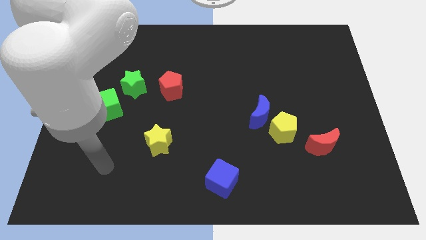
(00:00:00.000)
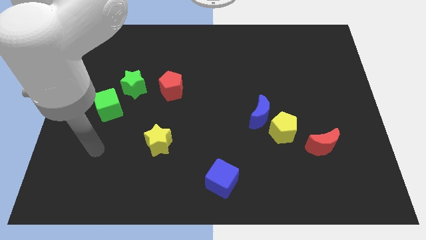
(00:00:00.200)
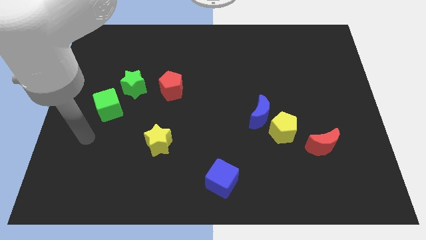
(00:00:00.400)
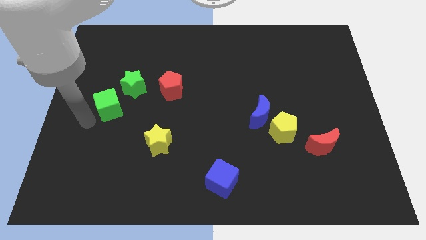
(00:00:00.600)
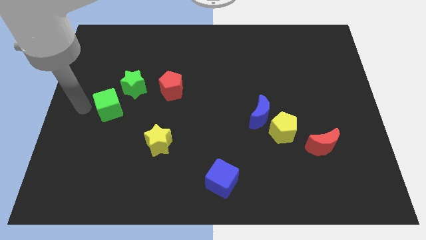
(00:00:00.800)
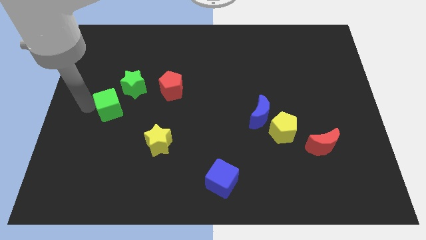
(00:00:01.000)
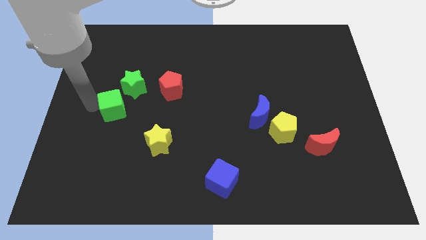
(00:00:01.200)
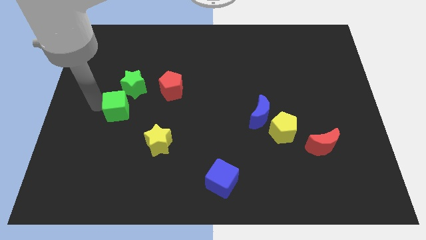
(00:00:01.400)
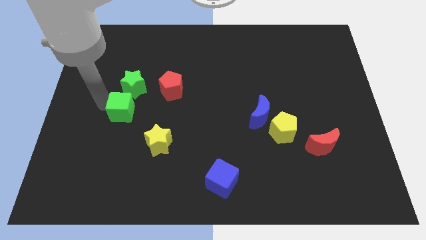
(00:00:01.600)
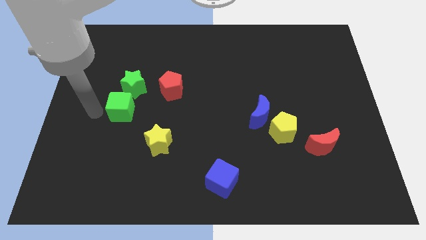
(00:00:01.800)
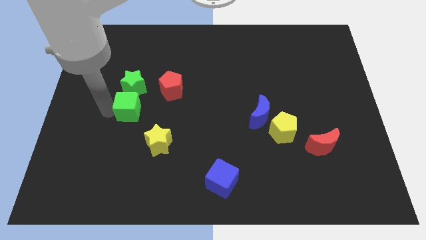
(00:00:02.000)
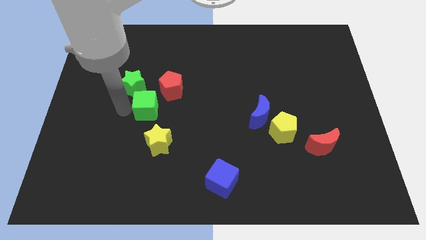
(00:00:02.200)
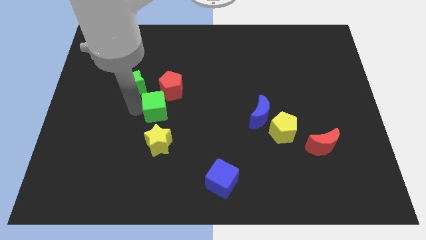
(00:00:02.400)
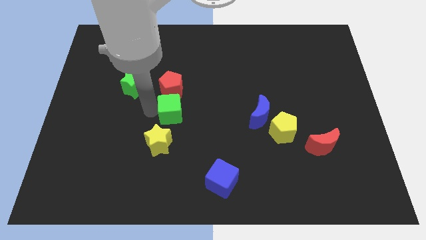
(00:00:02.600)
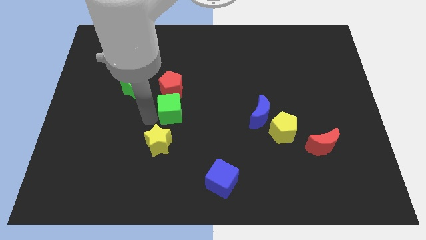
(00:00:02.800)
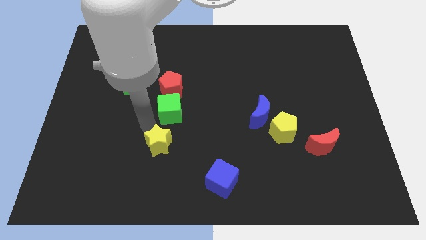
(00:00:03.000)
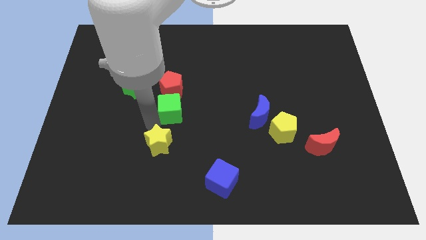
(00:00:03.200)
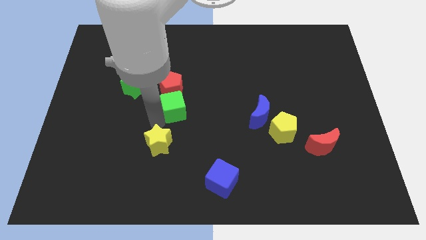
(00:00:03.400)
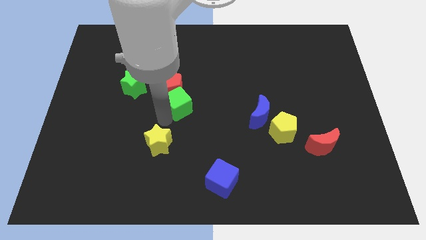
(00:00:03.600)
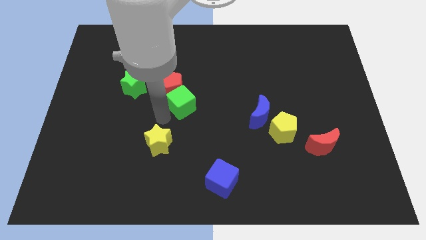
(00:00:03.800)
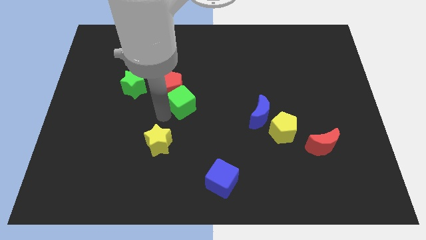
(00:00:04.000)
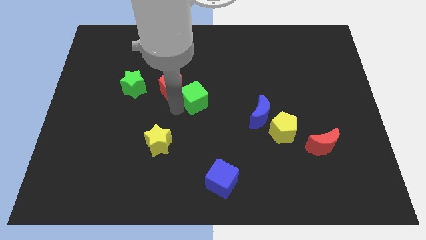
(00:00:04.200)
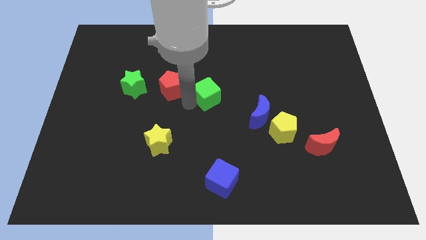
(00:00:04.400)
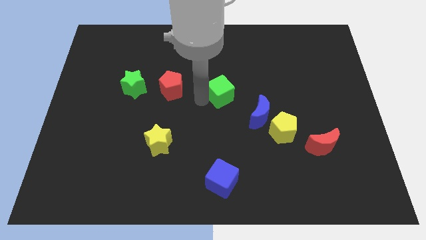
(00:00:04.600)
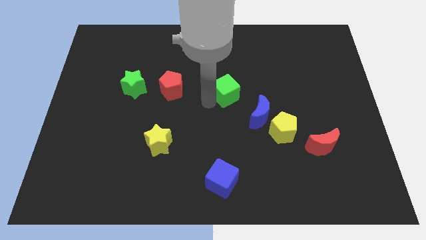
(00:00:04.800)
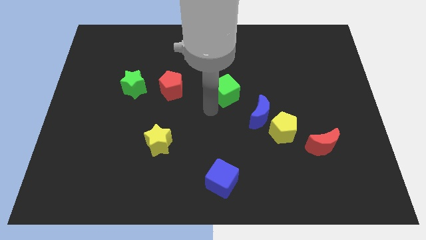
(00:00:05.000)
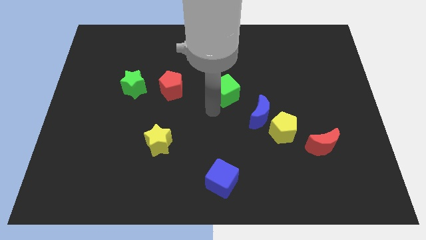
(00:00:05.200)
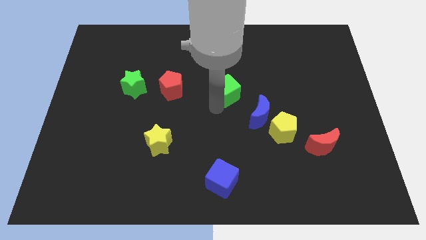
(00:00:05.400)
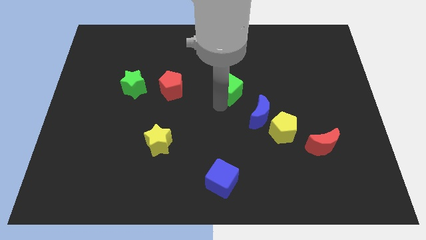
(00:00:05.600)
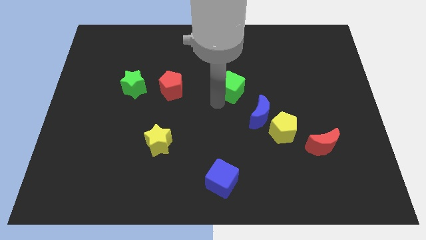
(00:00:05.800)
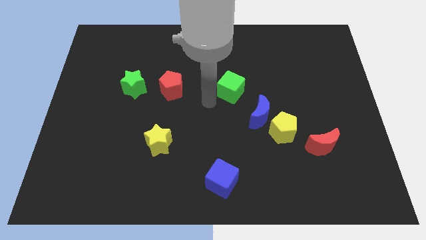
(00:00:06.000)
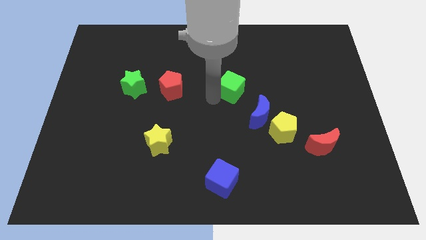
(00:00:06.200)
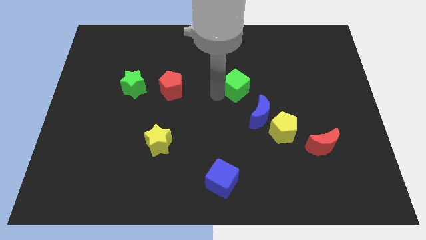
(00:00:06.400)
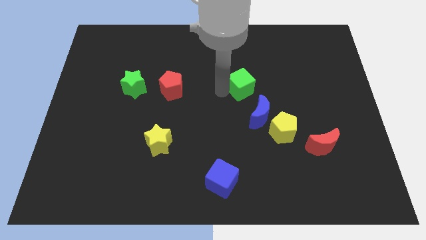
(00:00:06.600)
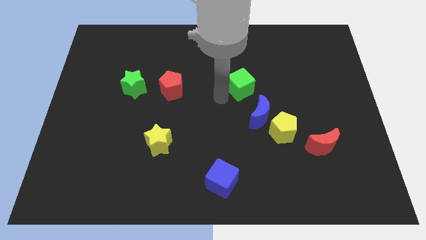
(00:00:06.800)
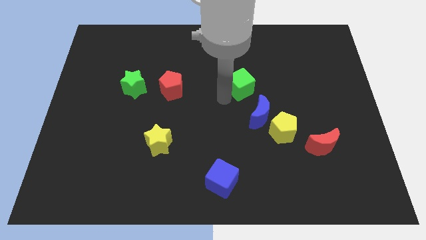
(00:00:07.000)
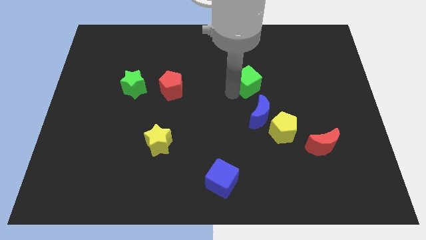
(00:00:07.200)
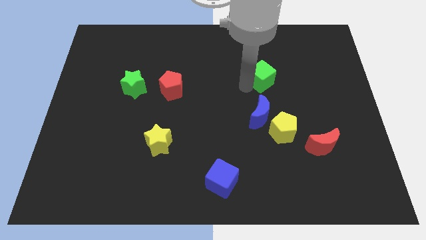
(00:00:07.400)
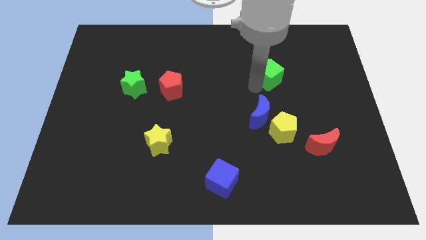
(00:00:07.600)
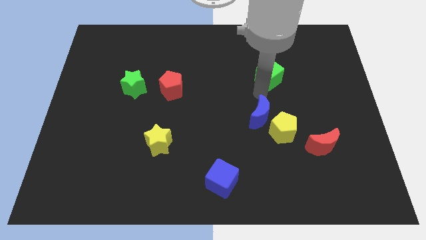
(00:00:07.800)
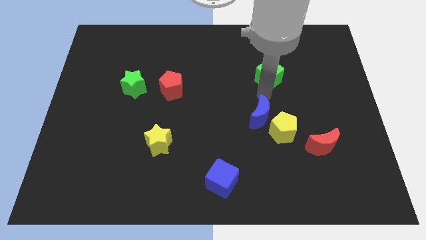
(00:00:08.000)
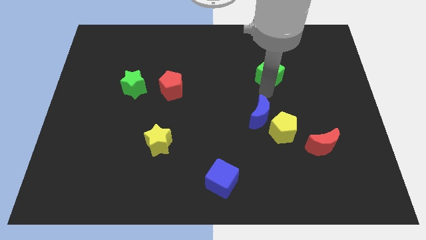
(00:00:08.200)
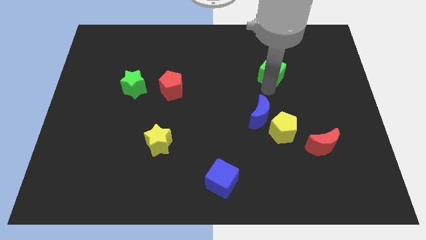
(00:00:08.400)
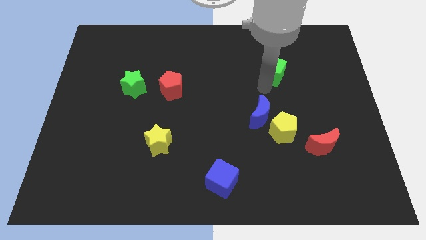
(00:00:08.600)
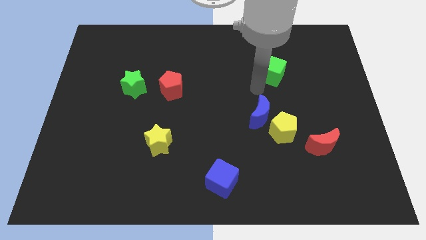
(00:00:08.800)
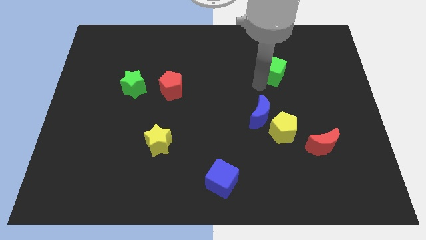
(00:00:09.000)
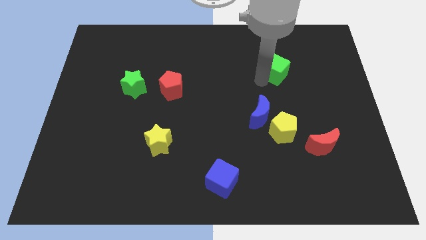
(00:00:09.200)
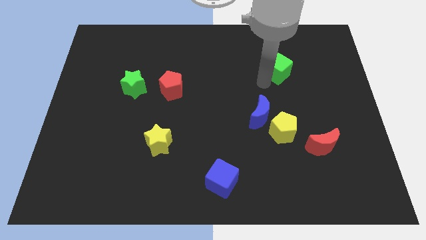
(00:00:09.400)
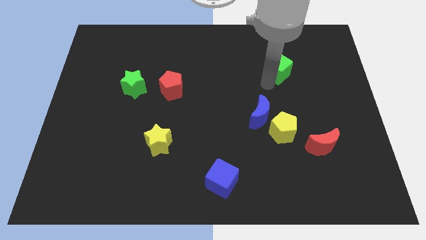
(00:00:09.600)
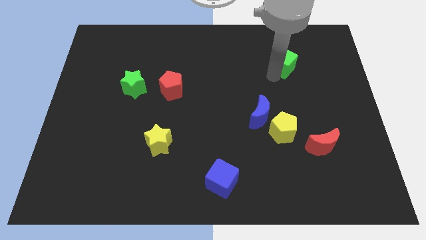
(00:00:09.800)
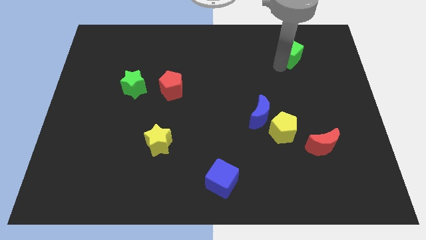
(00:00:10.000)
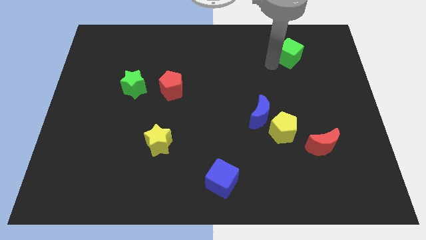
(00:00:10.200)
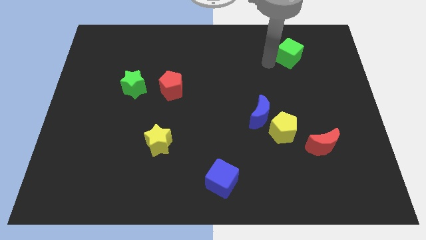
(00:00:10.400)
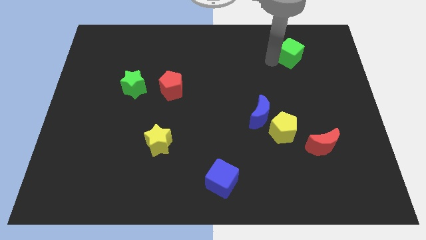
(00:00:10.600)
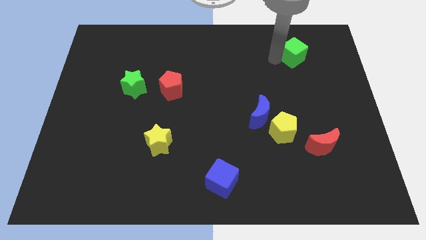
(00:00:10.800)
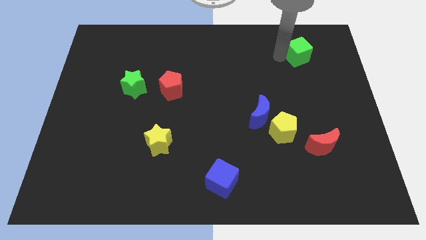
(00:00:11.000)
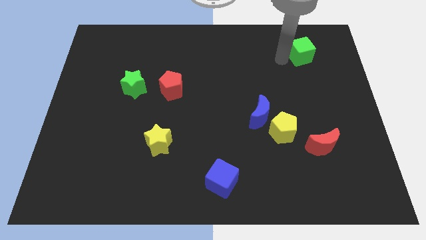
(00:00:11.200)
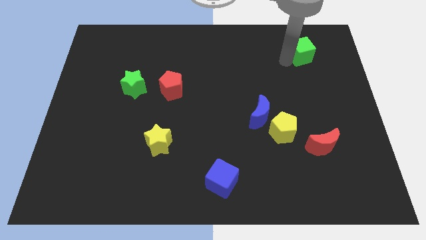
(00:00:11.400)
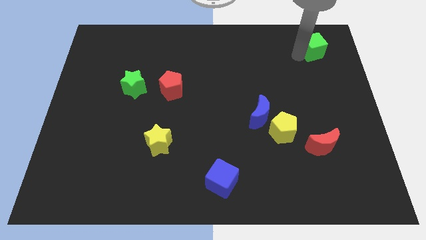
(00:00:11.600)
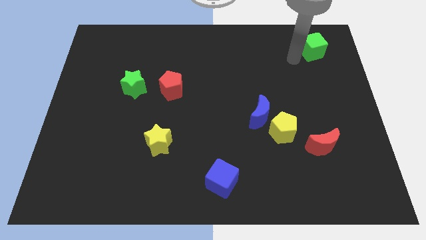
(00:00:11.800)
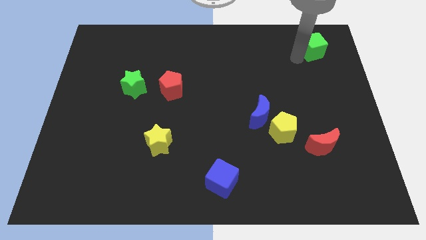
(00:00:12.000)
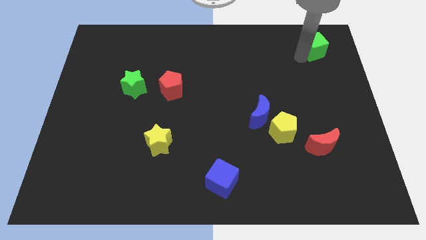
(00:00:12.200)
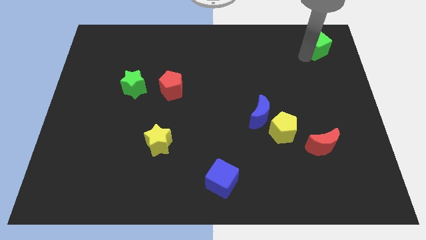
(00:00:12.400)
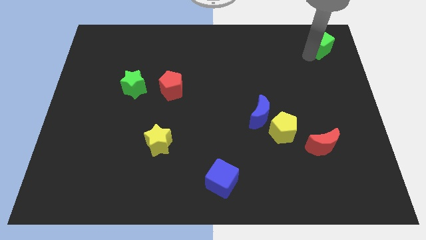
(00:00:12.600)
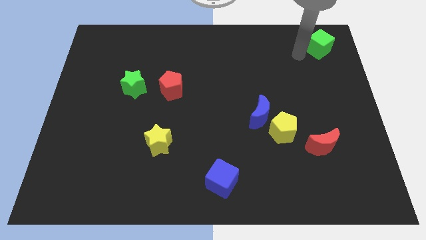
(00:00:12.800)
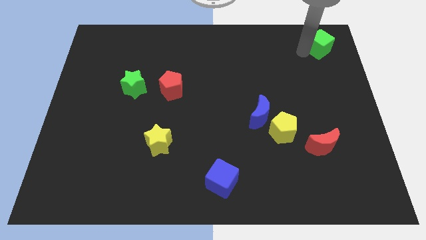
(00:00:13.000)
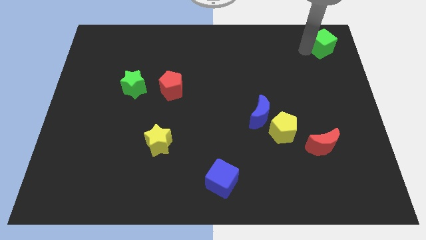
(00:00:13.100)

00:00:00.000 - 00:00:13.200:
push the green cube to the top right corner
